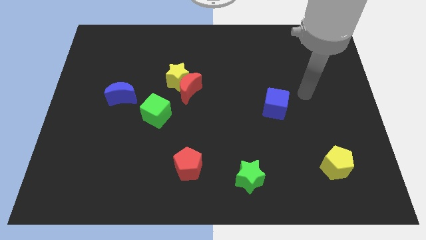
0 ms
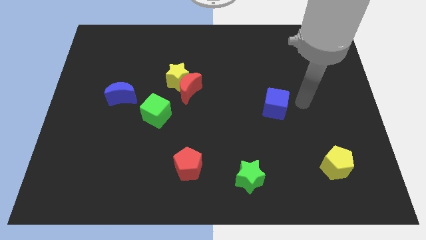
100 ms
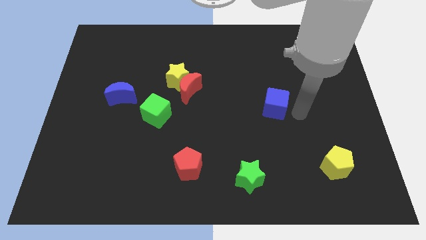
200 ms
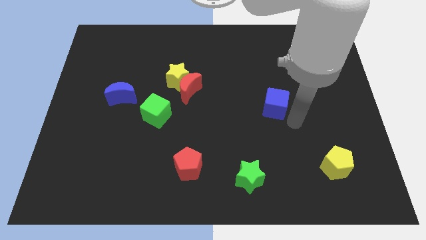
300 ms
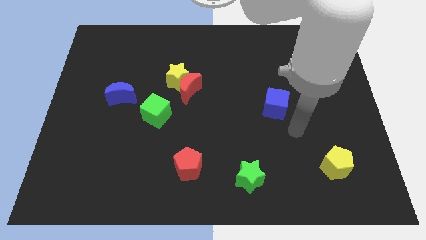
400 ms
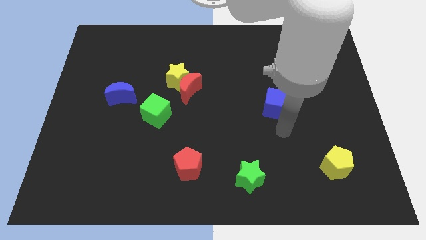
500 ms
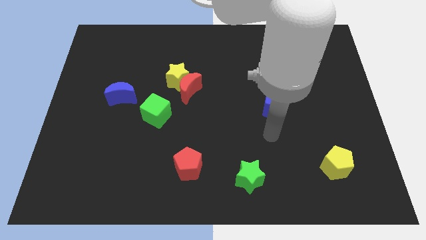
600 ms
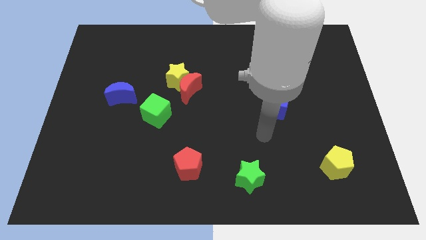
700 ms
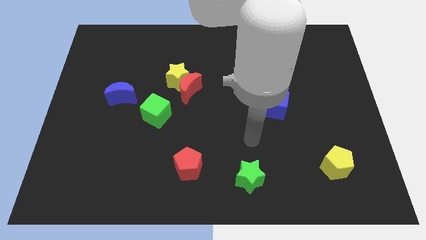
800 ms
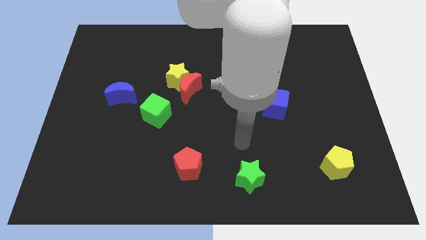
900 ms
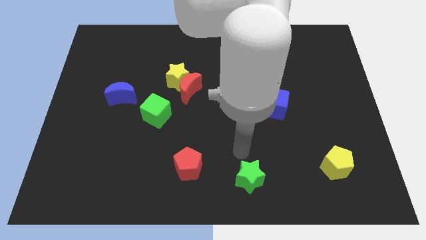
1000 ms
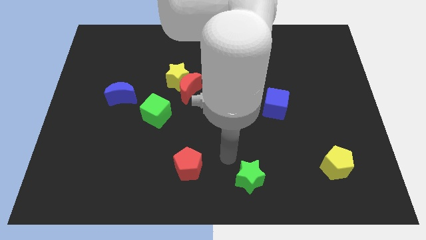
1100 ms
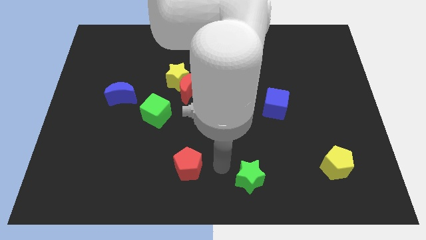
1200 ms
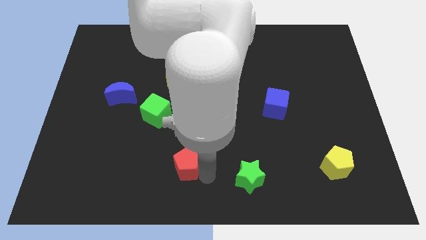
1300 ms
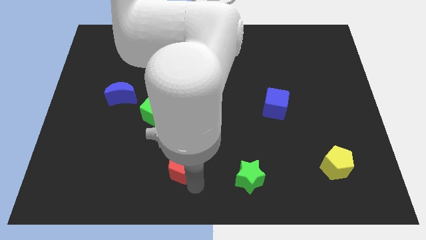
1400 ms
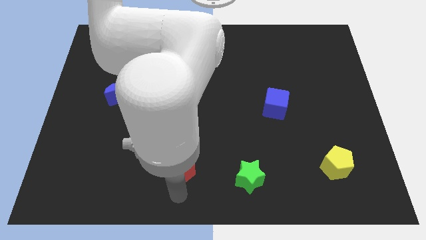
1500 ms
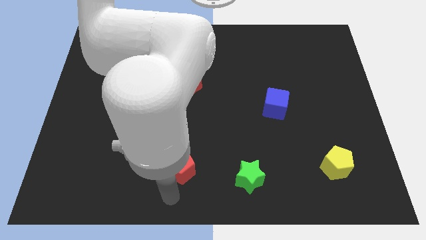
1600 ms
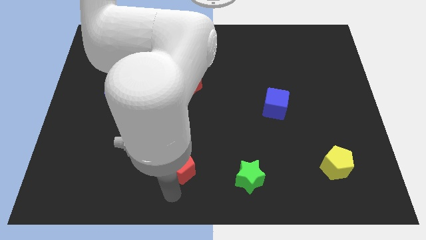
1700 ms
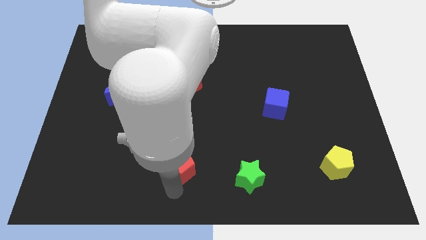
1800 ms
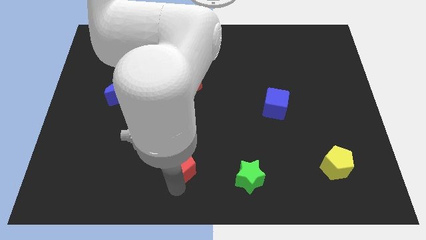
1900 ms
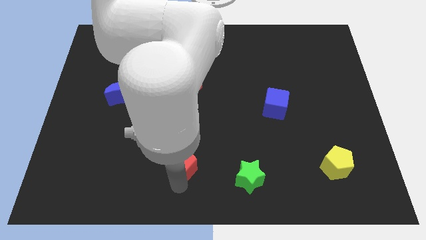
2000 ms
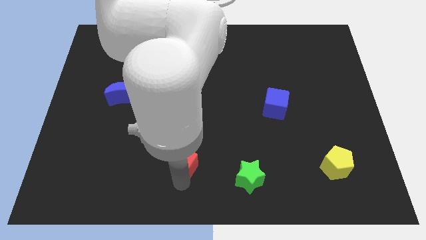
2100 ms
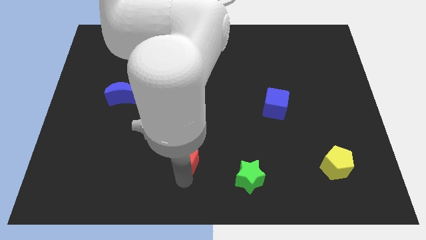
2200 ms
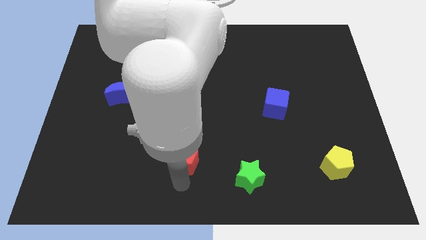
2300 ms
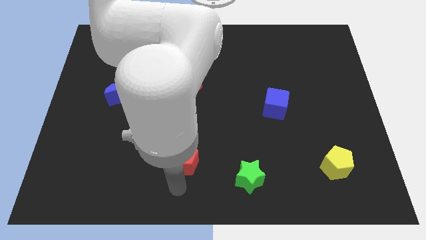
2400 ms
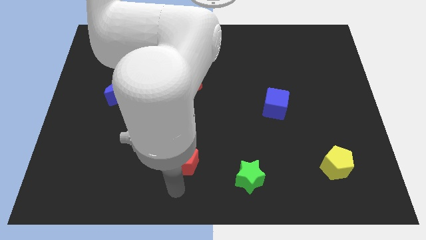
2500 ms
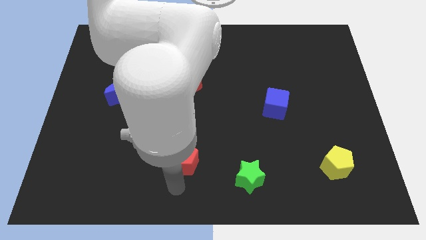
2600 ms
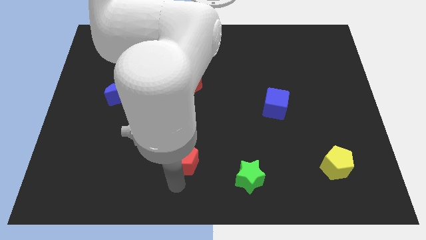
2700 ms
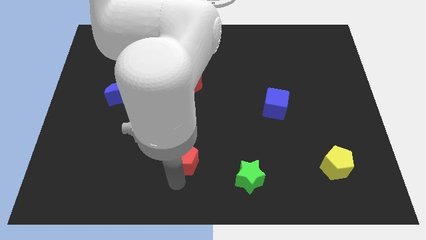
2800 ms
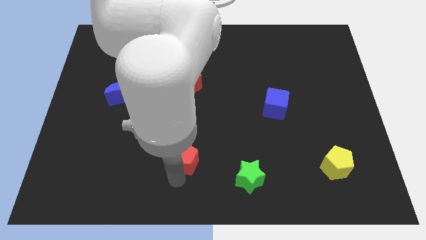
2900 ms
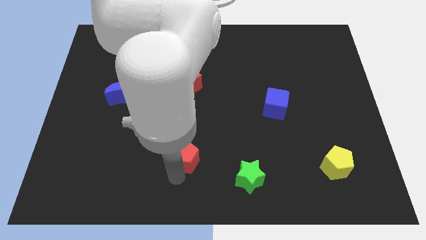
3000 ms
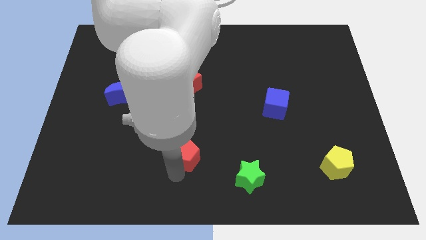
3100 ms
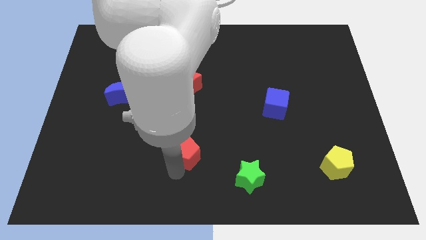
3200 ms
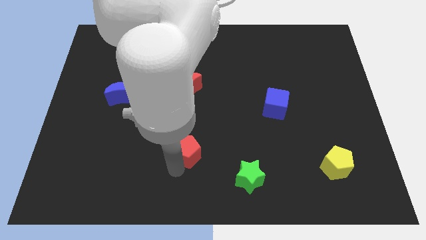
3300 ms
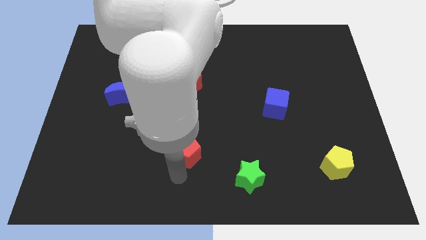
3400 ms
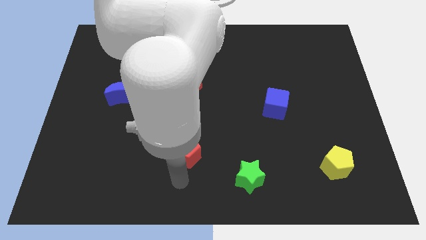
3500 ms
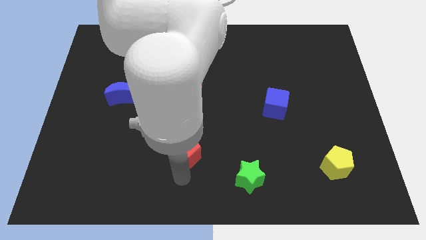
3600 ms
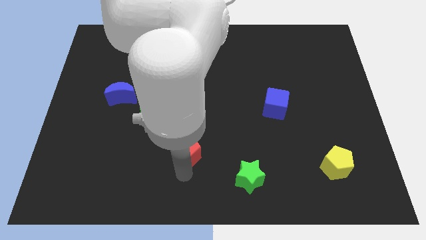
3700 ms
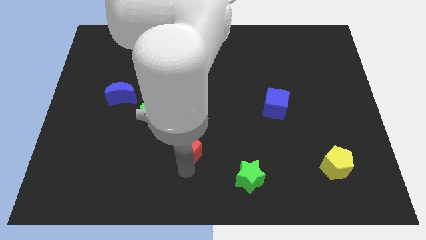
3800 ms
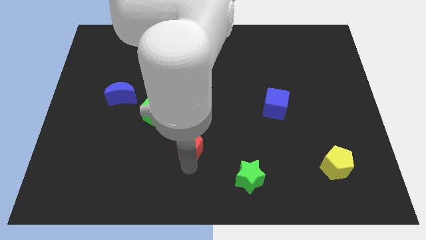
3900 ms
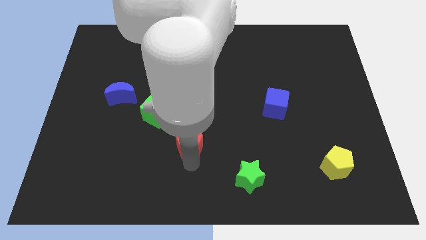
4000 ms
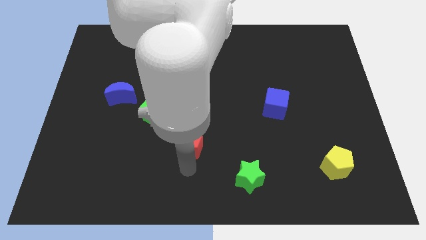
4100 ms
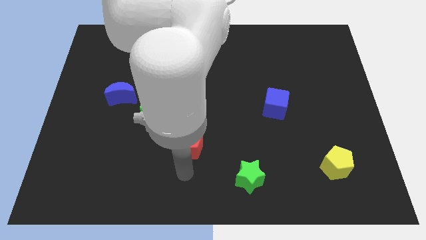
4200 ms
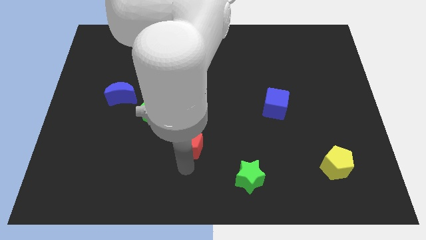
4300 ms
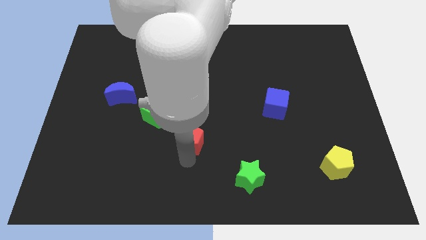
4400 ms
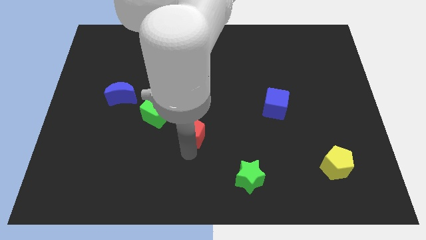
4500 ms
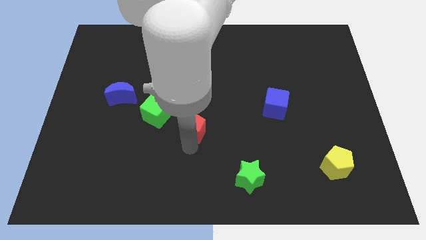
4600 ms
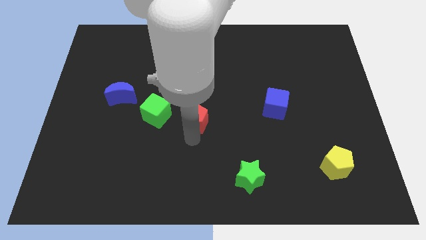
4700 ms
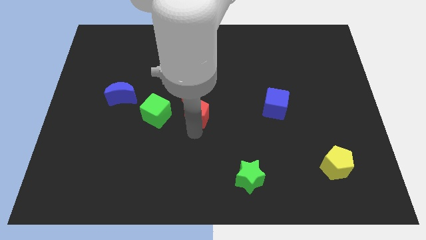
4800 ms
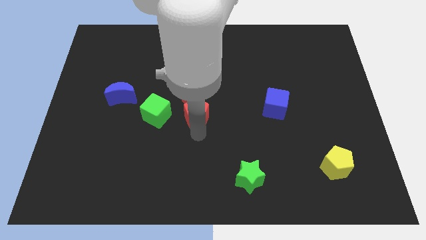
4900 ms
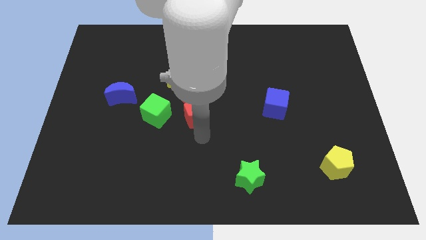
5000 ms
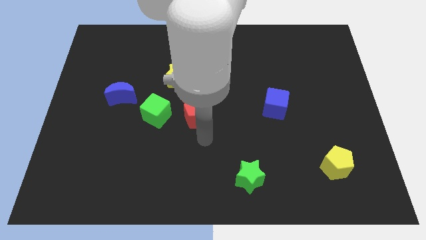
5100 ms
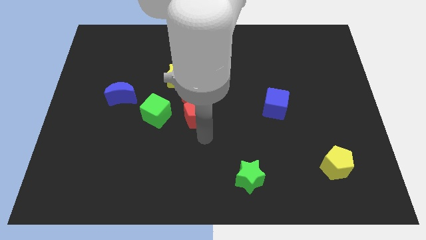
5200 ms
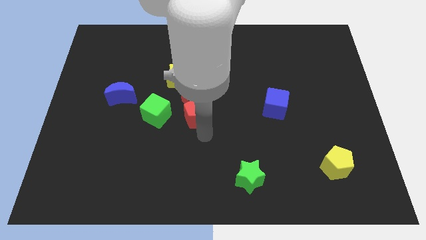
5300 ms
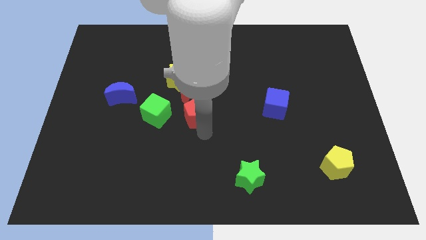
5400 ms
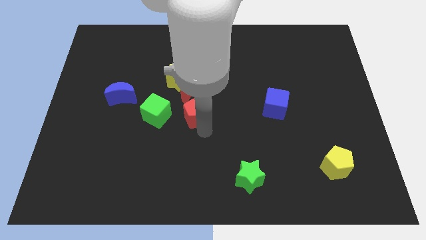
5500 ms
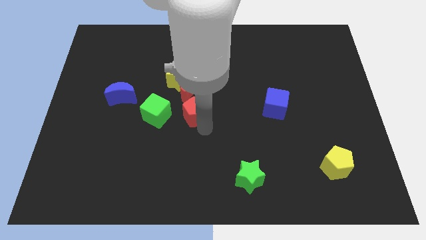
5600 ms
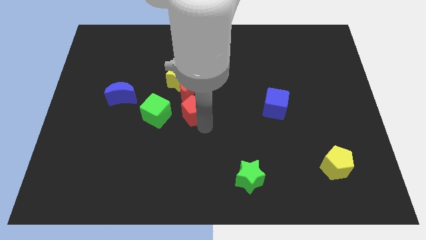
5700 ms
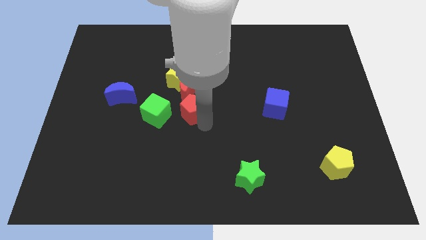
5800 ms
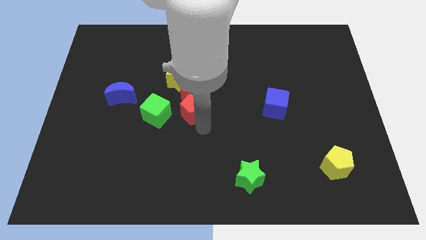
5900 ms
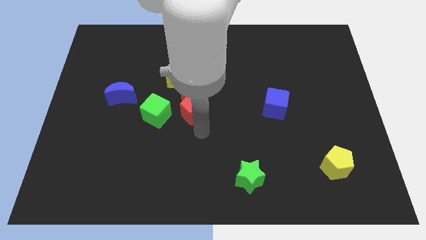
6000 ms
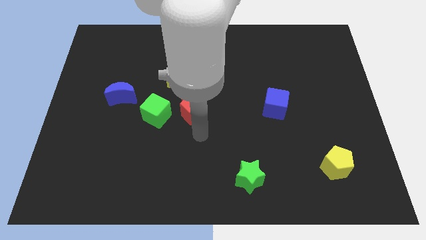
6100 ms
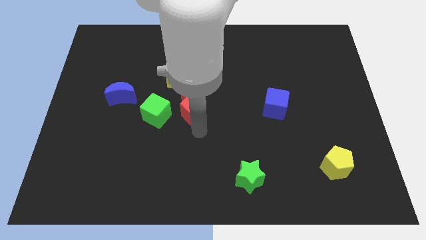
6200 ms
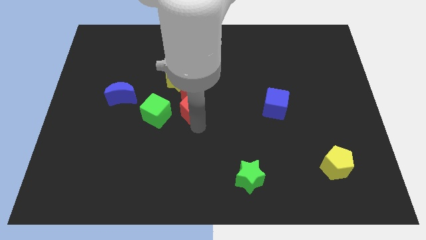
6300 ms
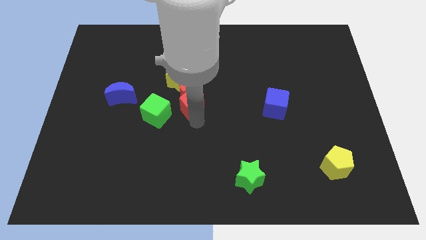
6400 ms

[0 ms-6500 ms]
move the red pentagon to the red moon

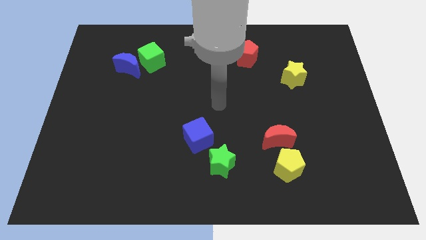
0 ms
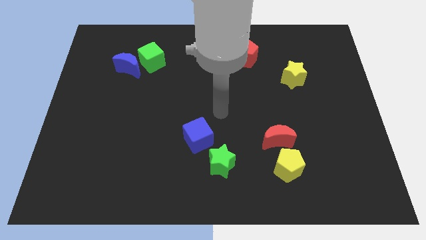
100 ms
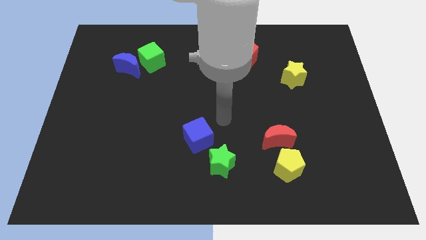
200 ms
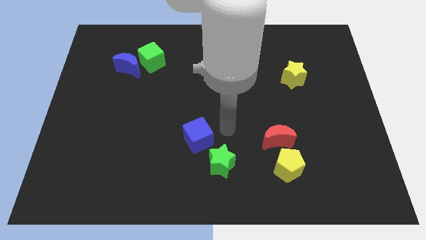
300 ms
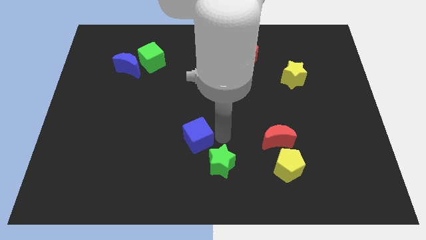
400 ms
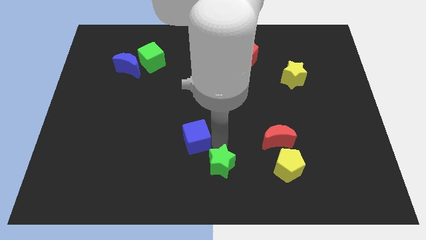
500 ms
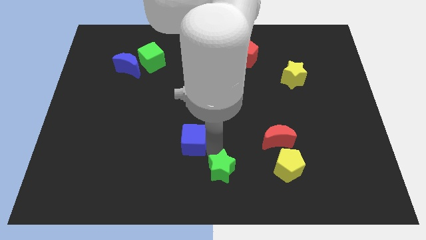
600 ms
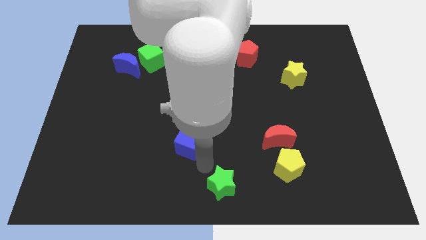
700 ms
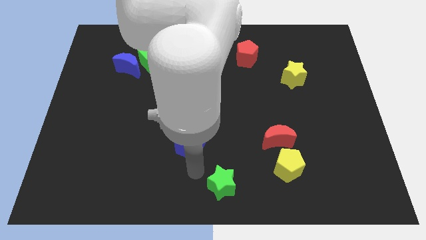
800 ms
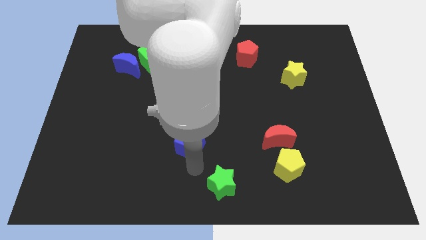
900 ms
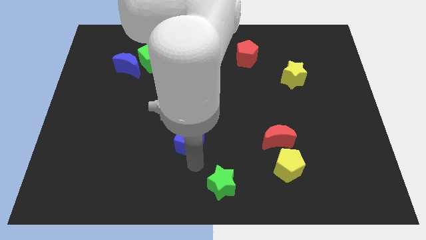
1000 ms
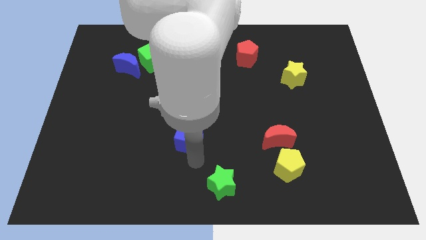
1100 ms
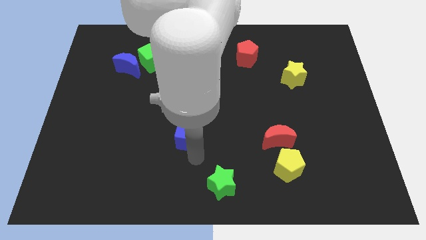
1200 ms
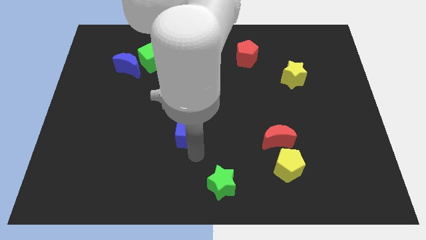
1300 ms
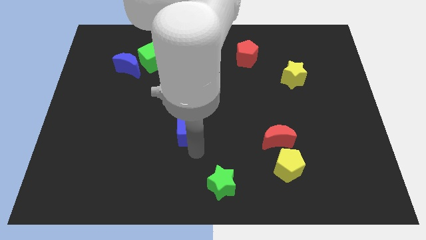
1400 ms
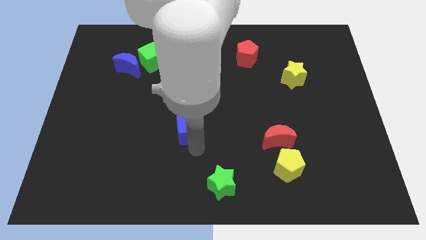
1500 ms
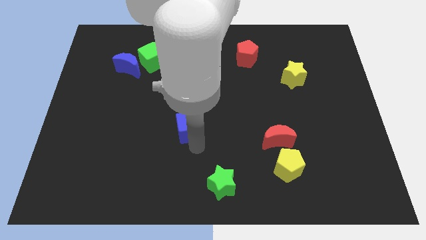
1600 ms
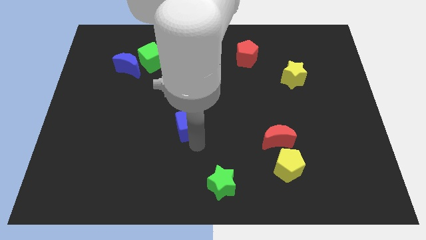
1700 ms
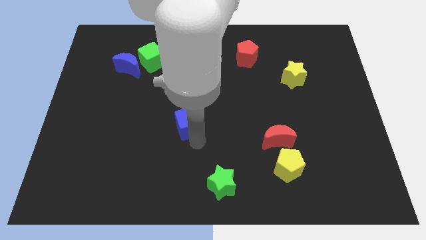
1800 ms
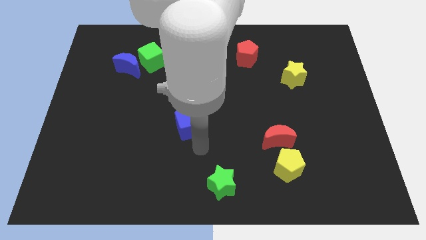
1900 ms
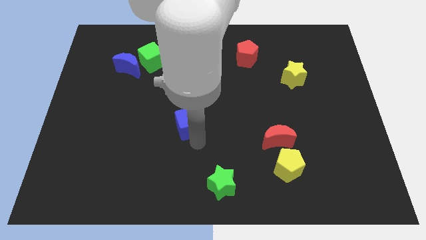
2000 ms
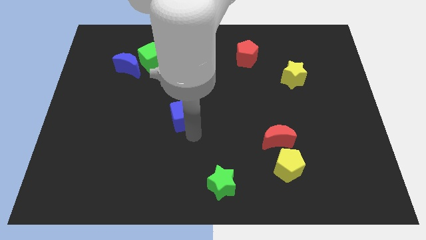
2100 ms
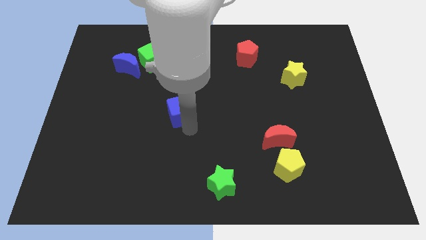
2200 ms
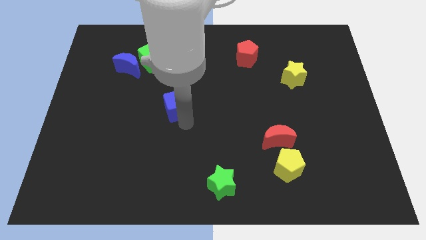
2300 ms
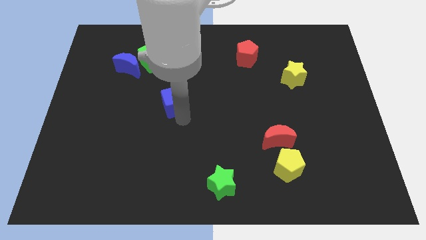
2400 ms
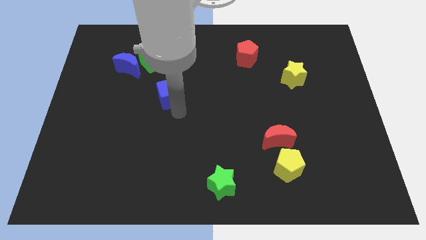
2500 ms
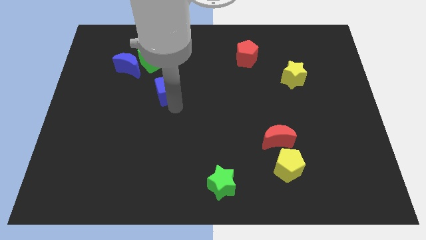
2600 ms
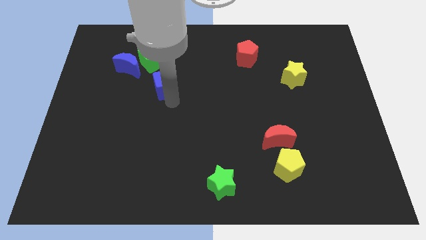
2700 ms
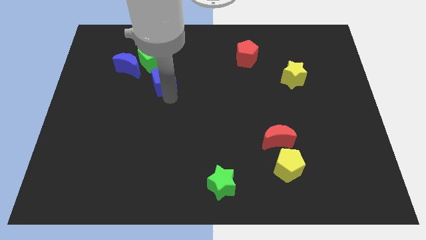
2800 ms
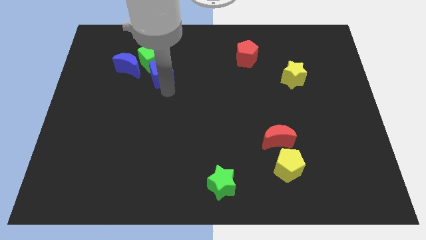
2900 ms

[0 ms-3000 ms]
move the blue cube next to the green cube
